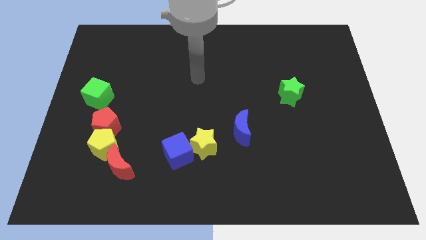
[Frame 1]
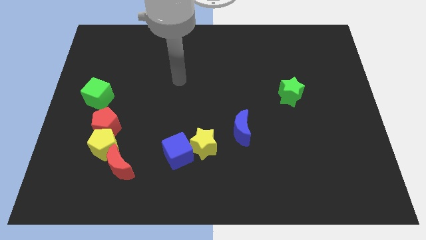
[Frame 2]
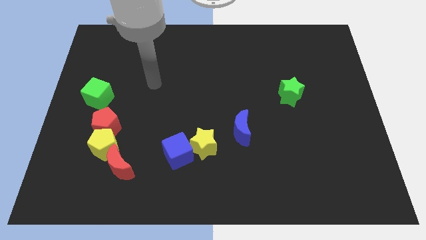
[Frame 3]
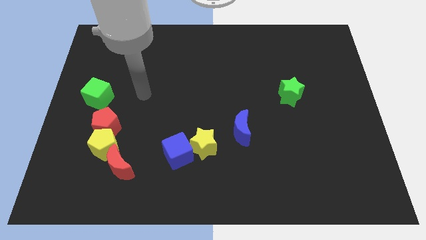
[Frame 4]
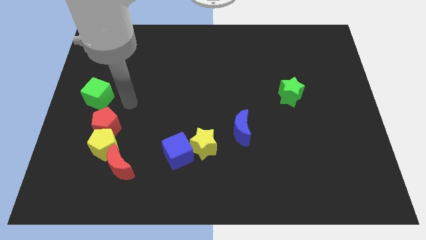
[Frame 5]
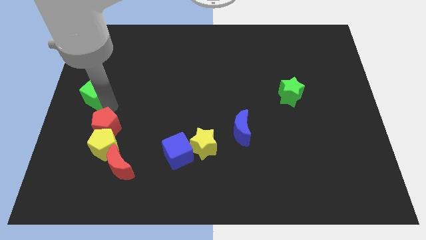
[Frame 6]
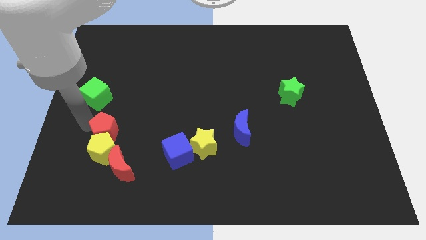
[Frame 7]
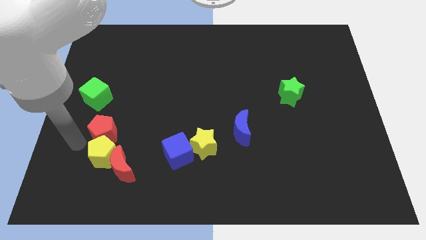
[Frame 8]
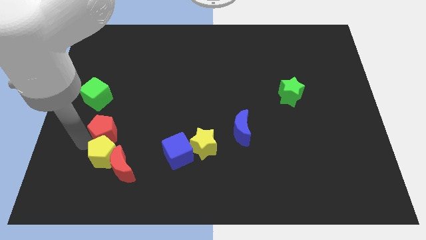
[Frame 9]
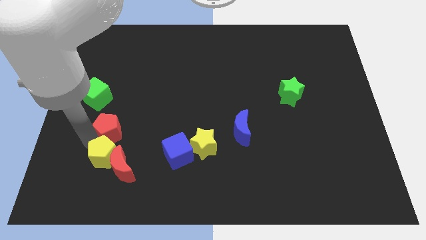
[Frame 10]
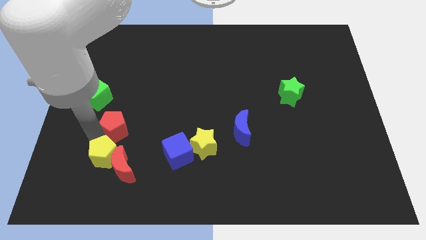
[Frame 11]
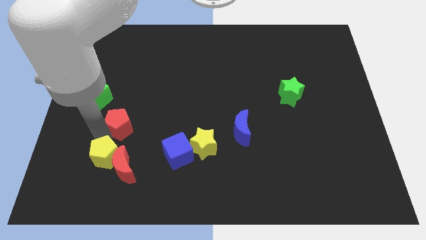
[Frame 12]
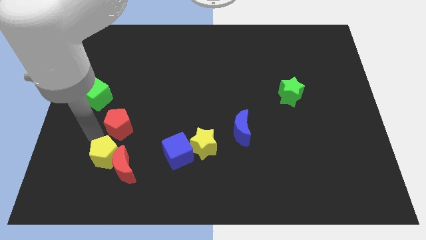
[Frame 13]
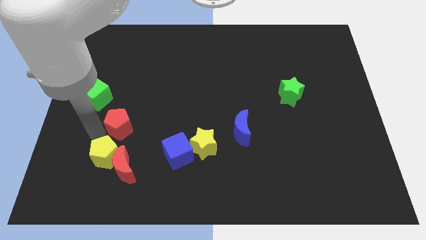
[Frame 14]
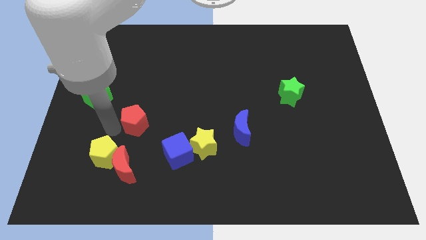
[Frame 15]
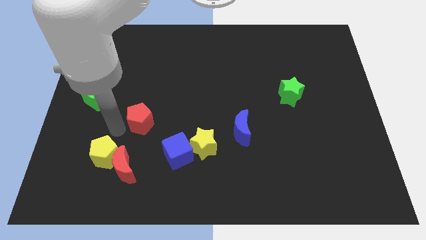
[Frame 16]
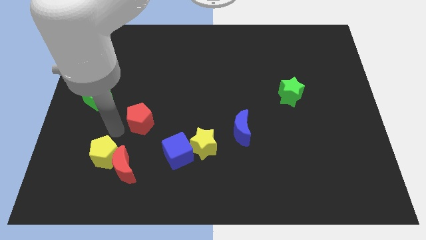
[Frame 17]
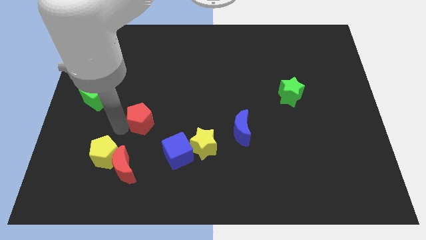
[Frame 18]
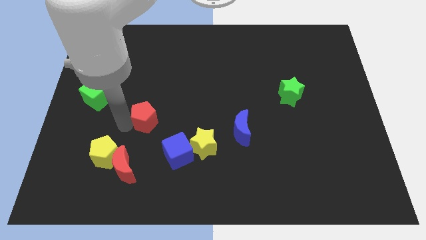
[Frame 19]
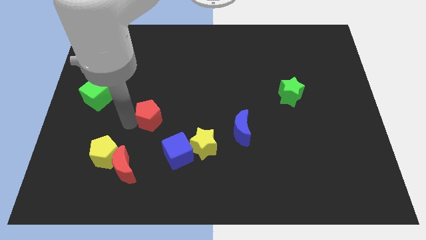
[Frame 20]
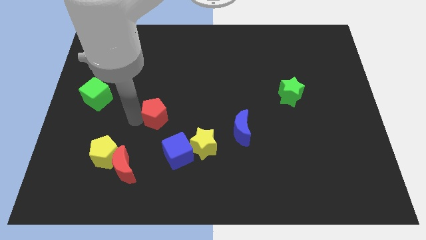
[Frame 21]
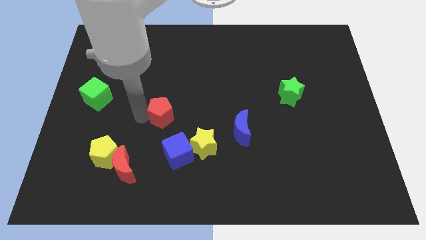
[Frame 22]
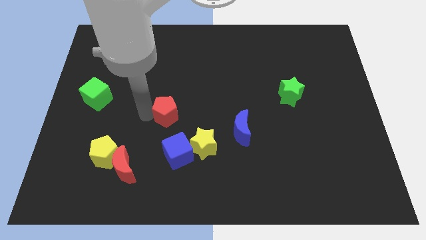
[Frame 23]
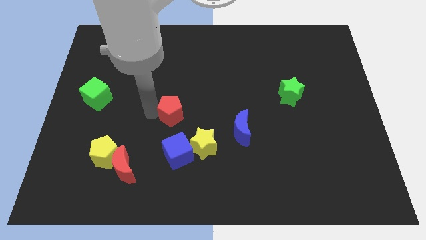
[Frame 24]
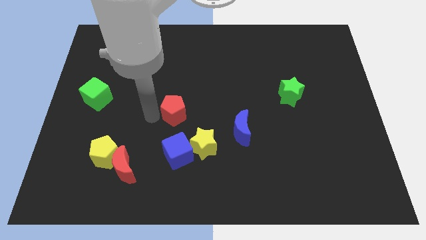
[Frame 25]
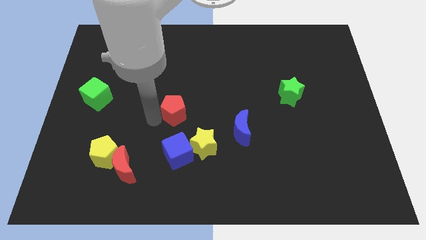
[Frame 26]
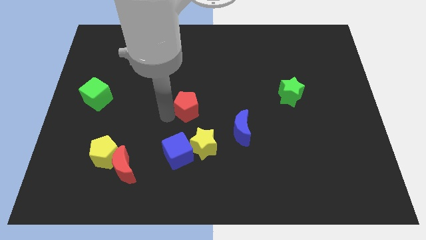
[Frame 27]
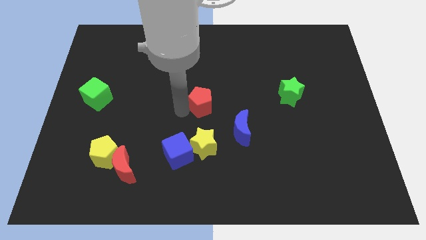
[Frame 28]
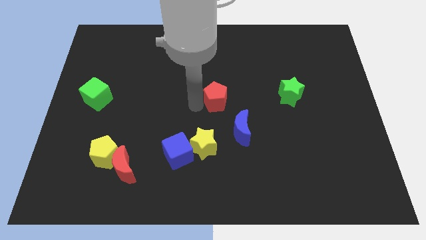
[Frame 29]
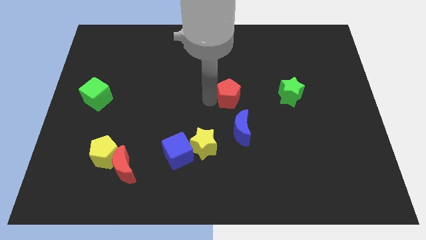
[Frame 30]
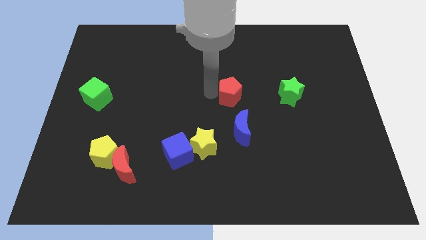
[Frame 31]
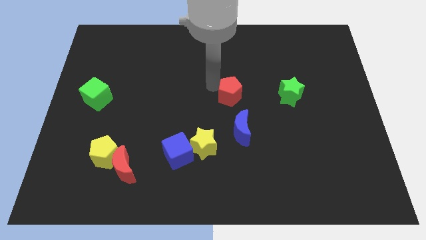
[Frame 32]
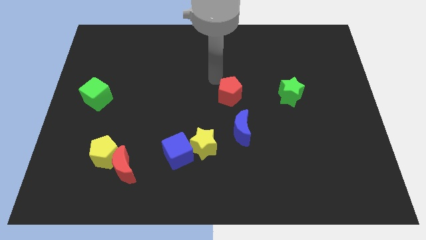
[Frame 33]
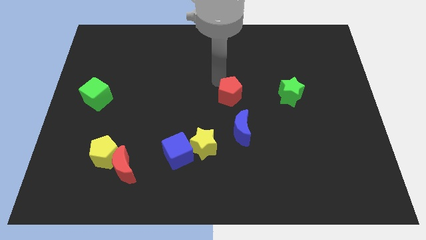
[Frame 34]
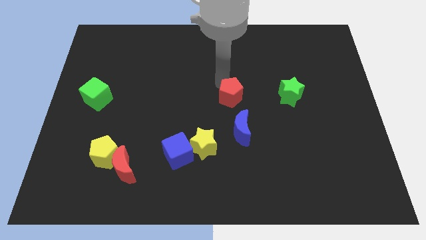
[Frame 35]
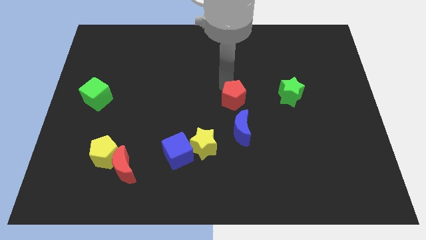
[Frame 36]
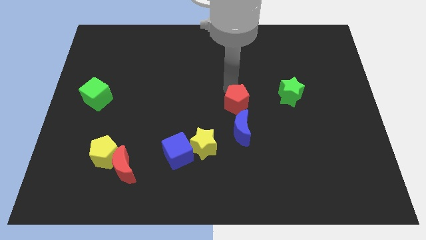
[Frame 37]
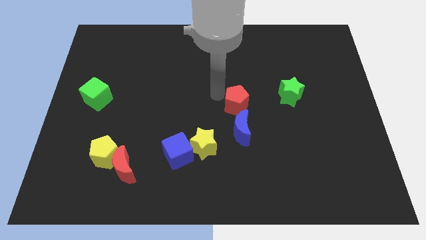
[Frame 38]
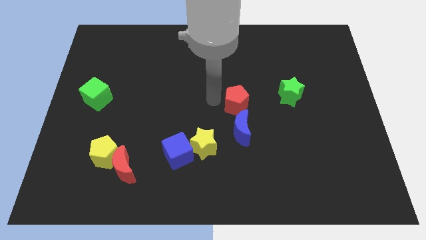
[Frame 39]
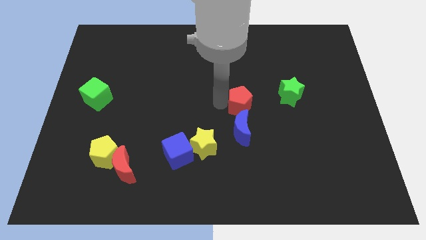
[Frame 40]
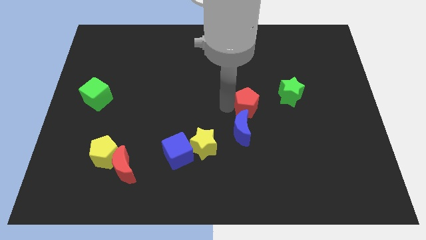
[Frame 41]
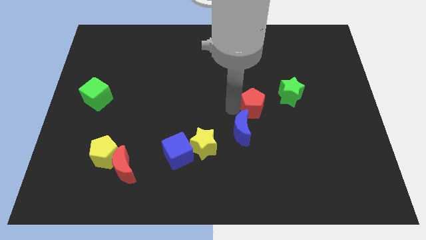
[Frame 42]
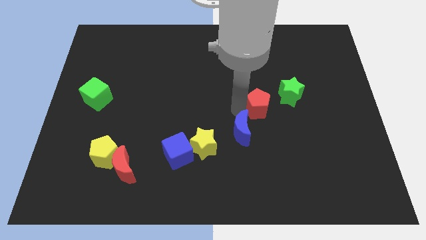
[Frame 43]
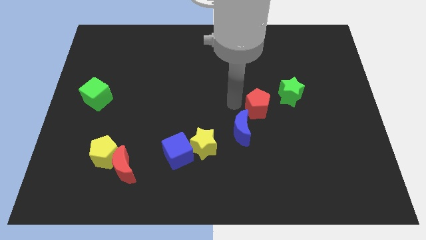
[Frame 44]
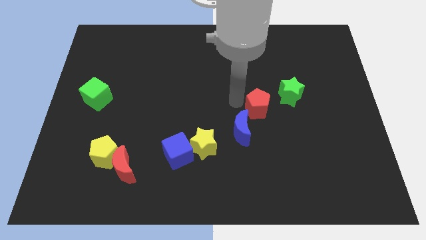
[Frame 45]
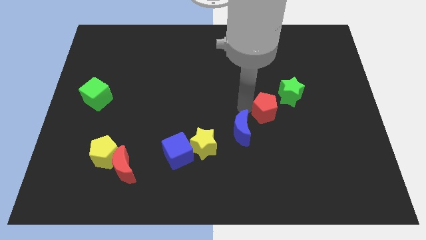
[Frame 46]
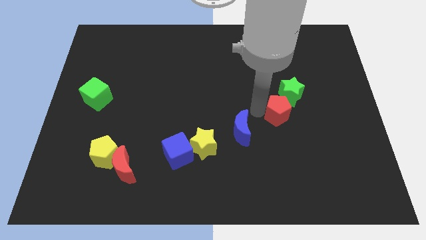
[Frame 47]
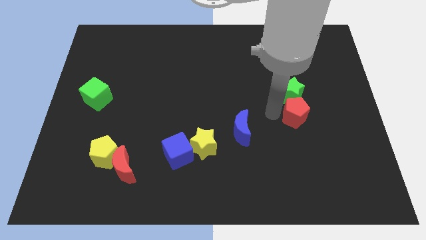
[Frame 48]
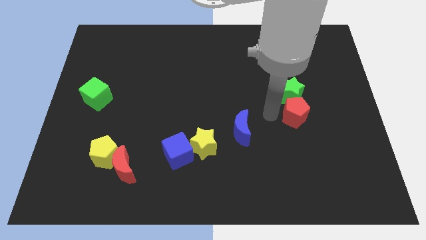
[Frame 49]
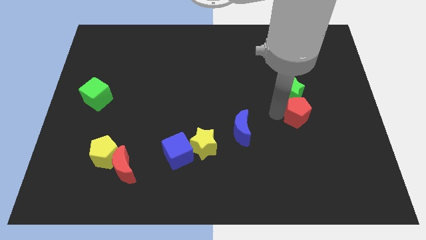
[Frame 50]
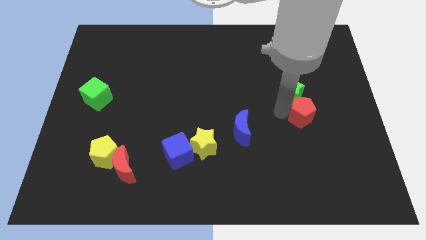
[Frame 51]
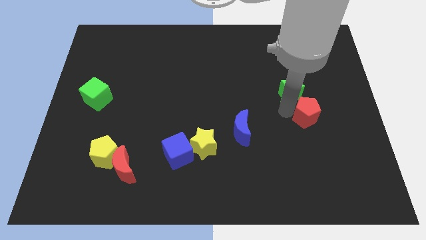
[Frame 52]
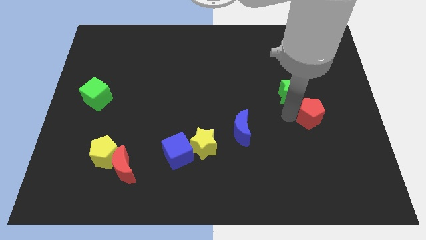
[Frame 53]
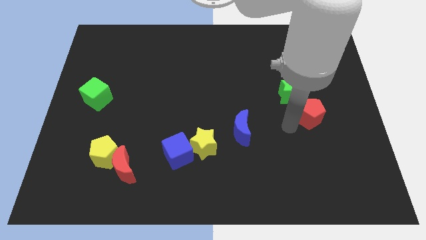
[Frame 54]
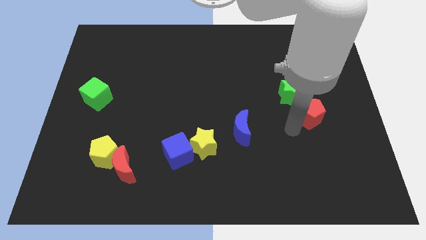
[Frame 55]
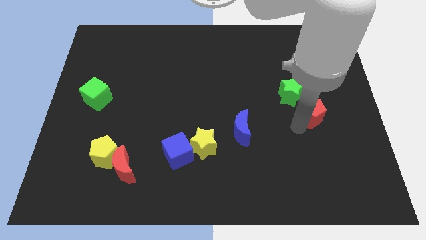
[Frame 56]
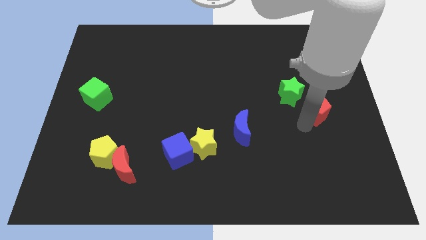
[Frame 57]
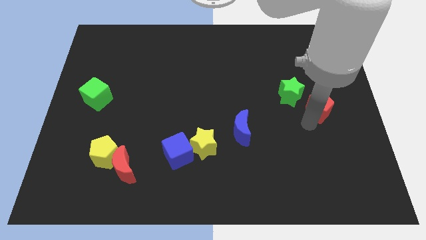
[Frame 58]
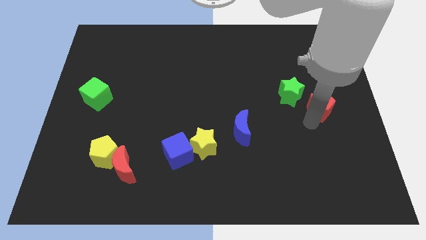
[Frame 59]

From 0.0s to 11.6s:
slide the red pentagon to the right side of the board
